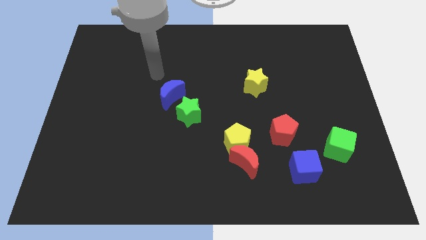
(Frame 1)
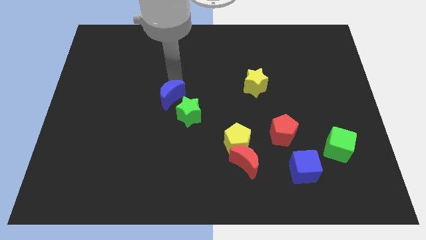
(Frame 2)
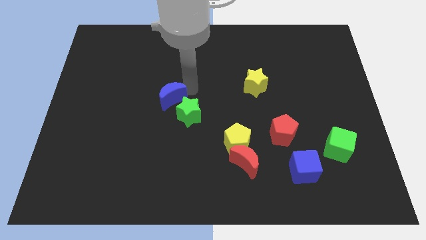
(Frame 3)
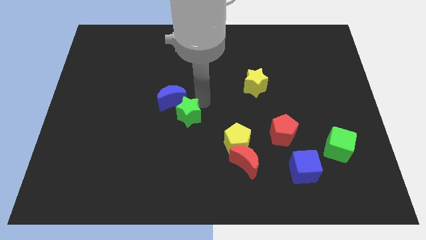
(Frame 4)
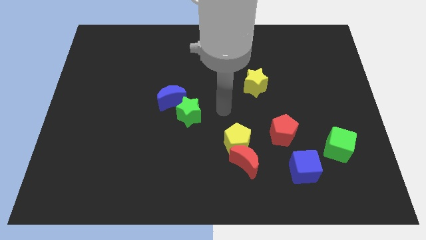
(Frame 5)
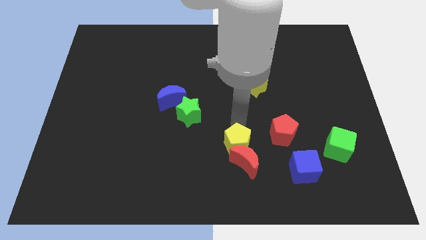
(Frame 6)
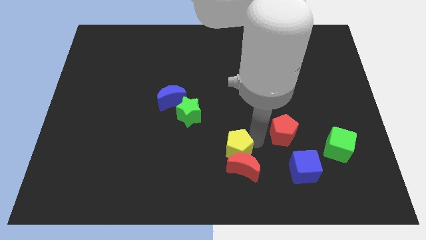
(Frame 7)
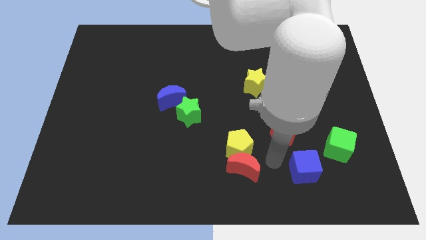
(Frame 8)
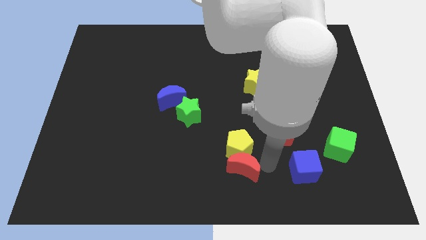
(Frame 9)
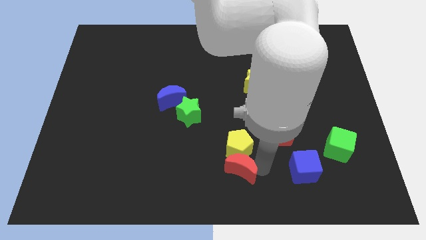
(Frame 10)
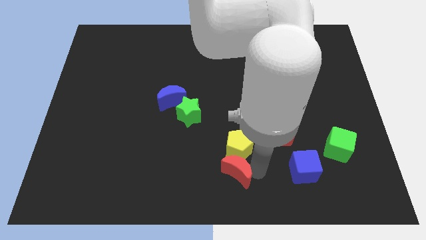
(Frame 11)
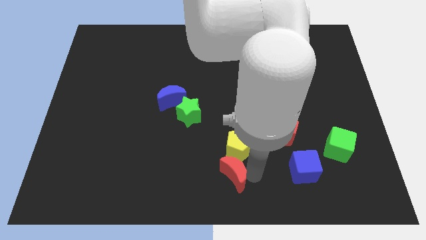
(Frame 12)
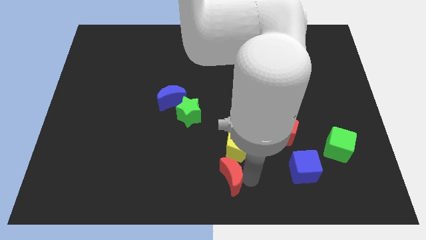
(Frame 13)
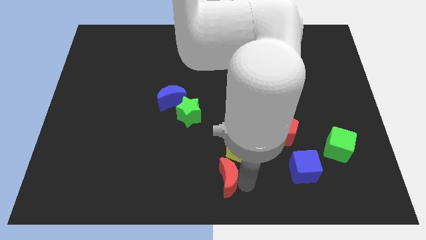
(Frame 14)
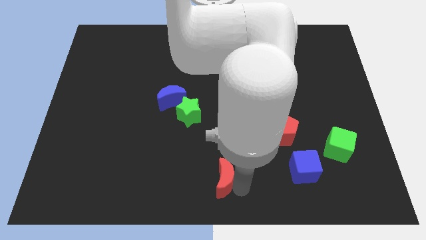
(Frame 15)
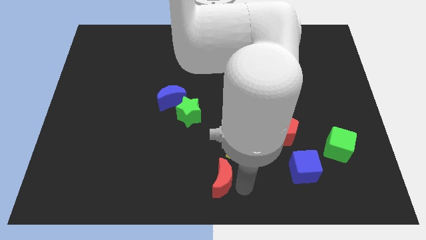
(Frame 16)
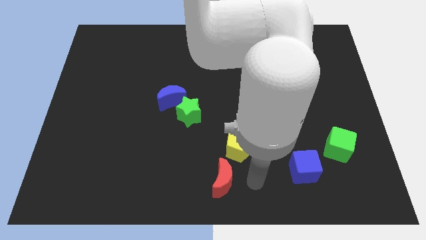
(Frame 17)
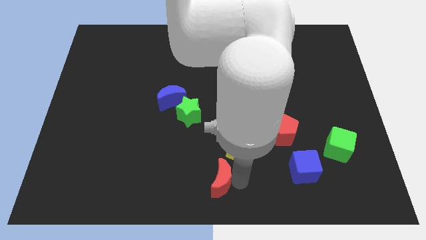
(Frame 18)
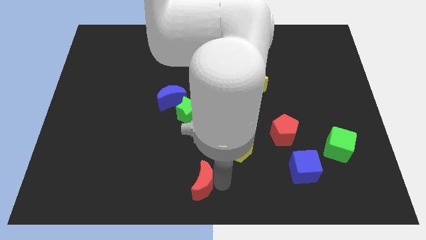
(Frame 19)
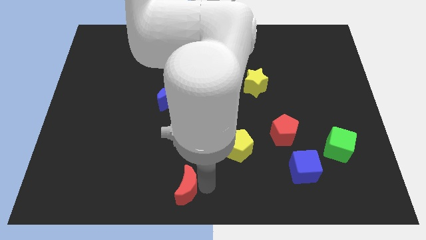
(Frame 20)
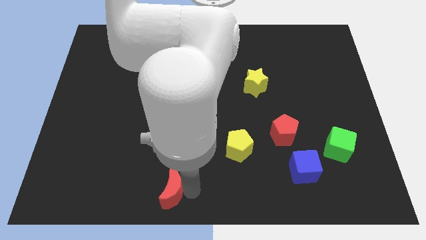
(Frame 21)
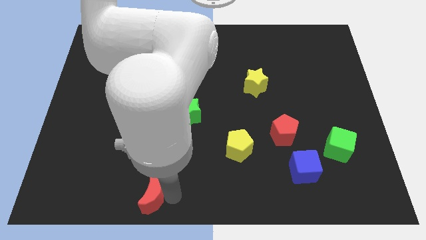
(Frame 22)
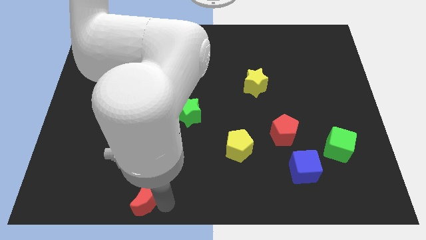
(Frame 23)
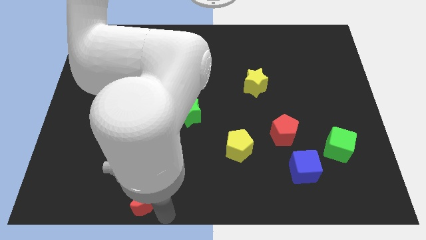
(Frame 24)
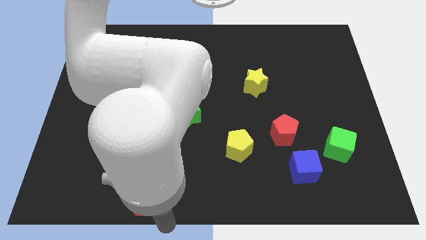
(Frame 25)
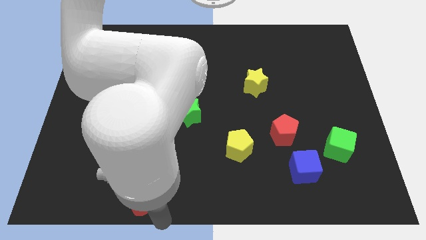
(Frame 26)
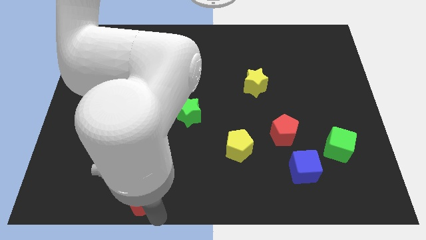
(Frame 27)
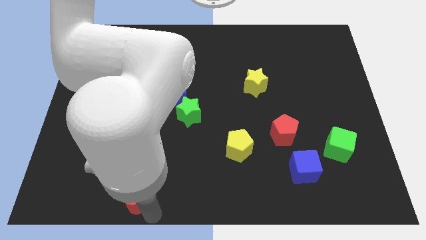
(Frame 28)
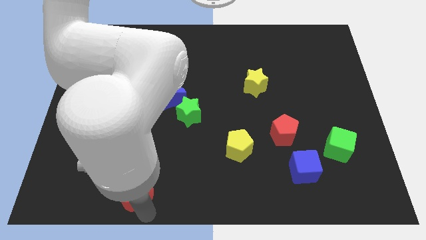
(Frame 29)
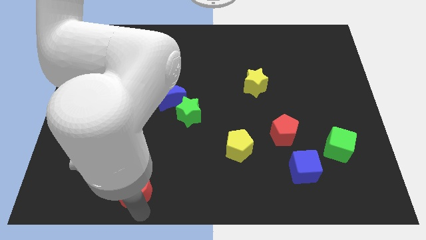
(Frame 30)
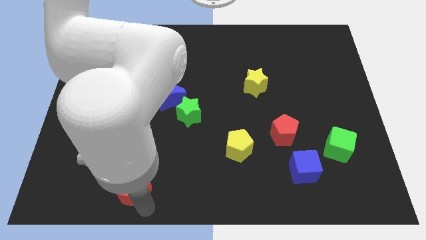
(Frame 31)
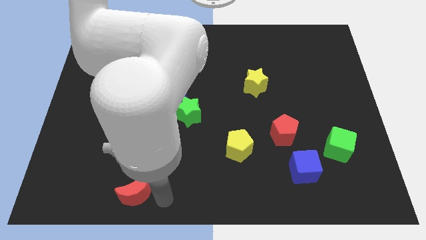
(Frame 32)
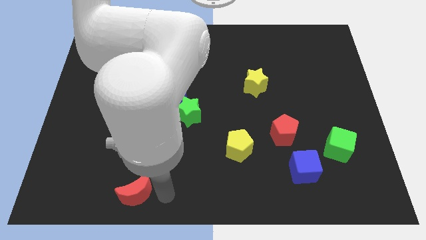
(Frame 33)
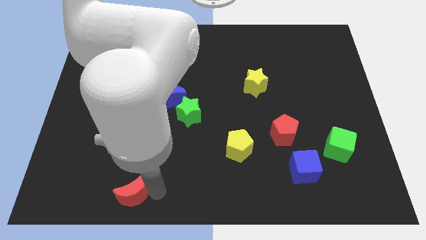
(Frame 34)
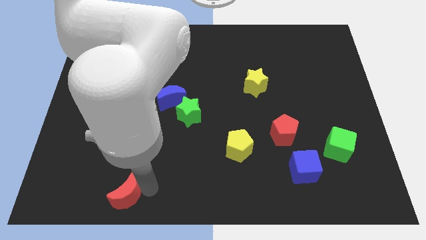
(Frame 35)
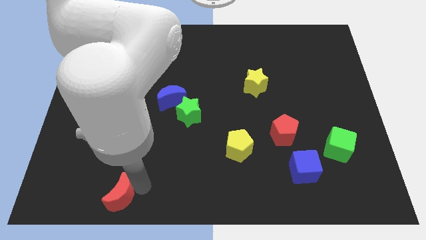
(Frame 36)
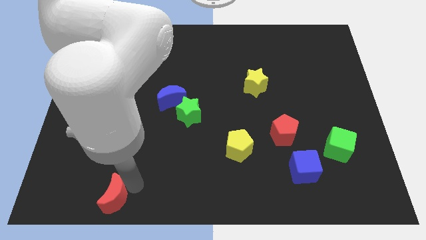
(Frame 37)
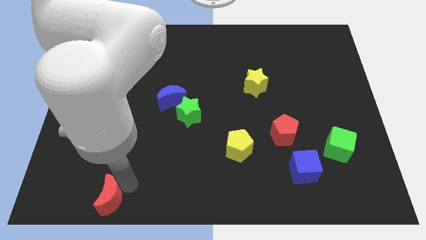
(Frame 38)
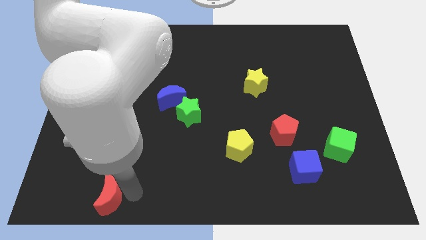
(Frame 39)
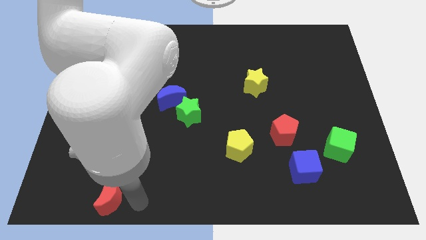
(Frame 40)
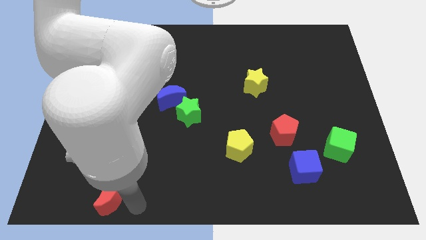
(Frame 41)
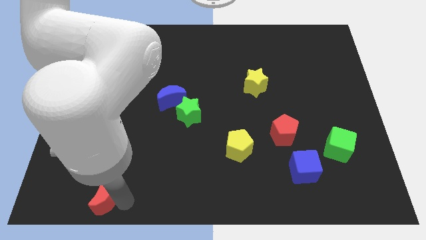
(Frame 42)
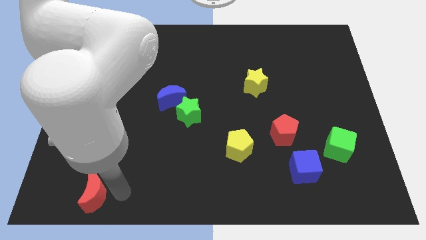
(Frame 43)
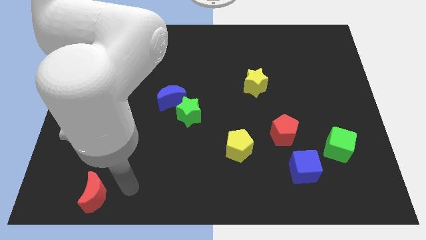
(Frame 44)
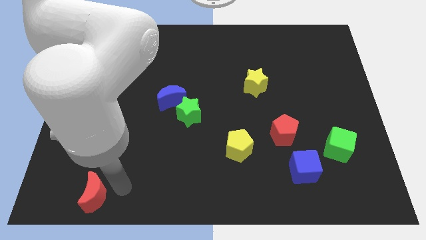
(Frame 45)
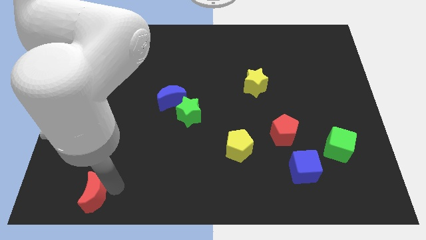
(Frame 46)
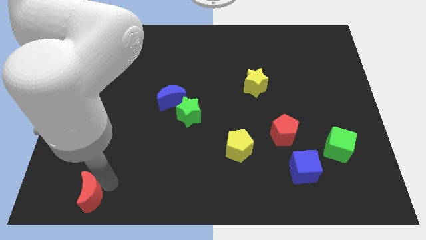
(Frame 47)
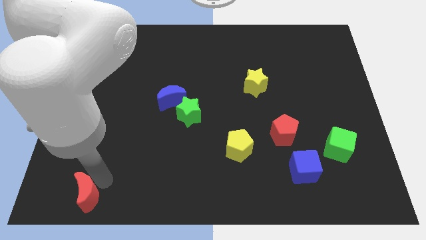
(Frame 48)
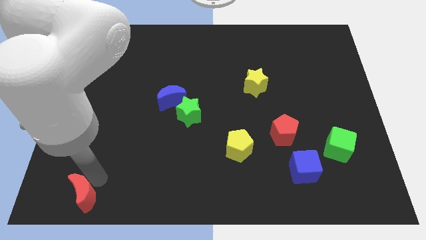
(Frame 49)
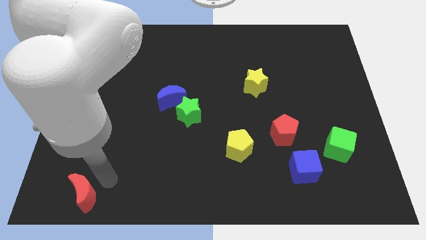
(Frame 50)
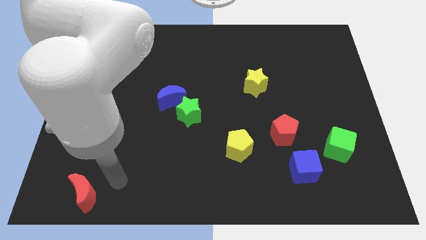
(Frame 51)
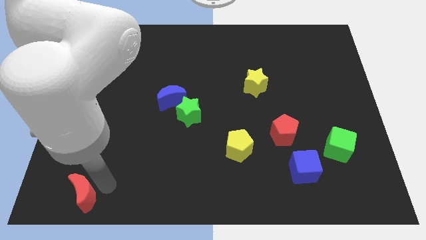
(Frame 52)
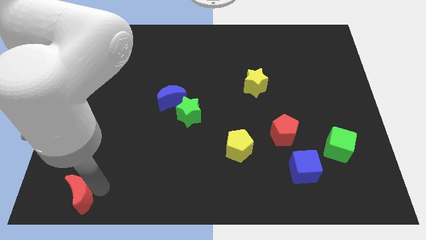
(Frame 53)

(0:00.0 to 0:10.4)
slide the red moon to the bottom left corner

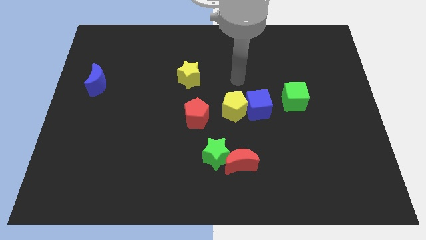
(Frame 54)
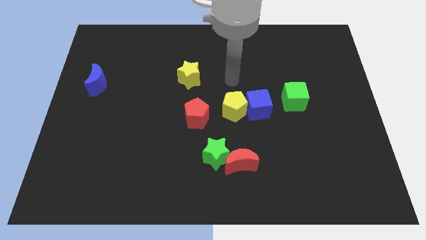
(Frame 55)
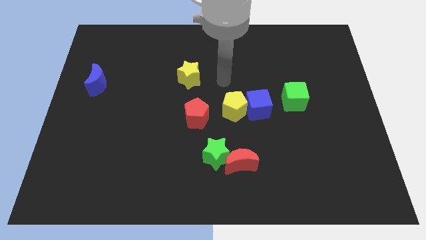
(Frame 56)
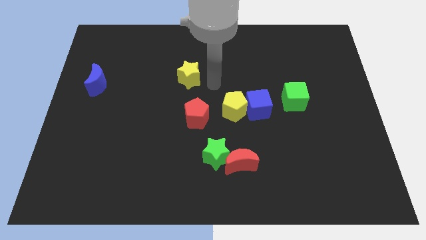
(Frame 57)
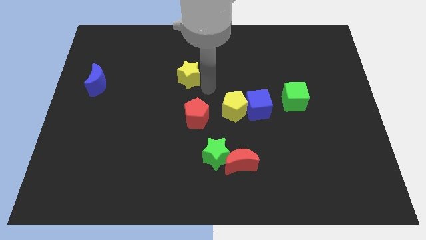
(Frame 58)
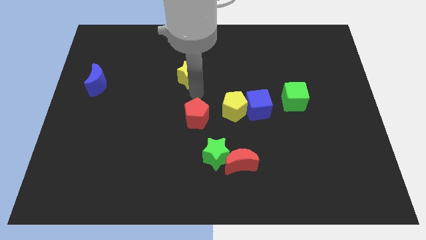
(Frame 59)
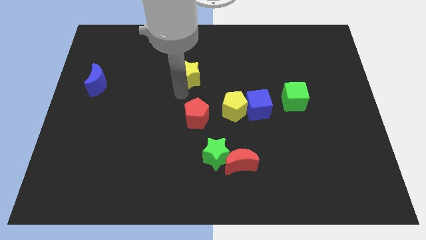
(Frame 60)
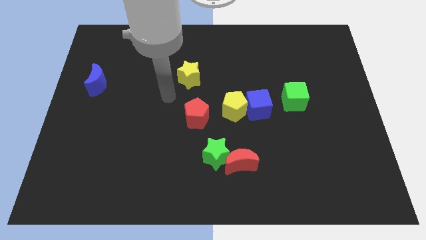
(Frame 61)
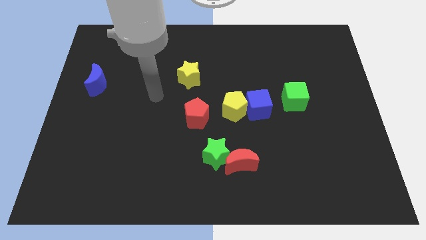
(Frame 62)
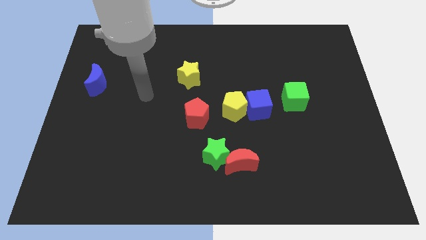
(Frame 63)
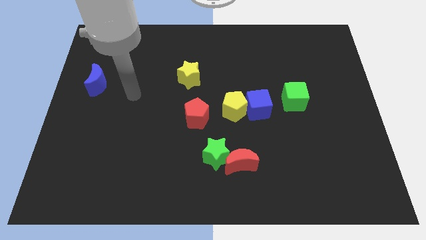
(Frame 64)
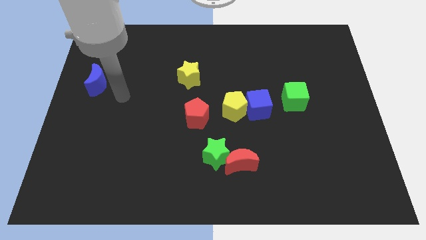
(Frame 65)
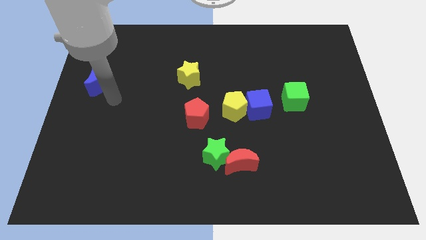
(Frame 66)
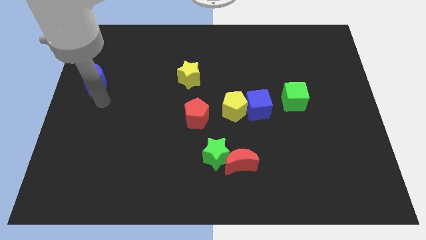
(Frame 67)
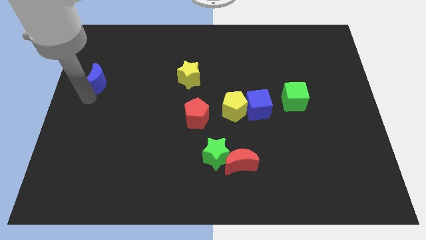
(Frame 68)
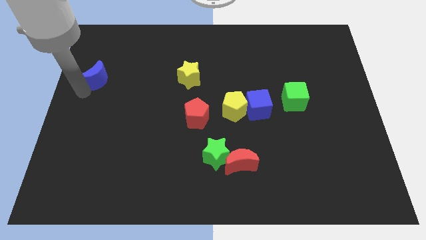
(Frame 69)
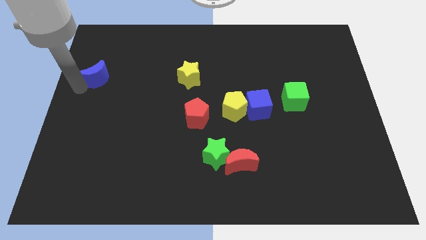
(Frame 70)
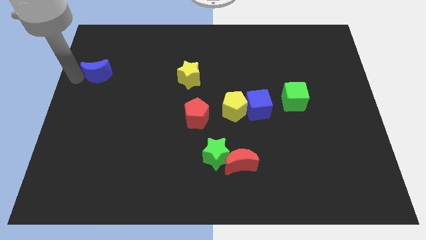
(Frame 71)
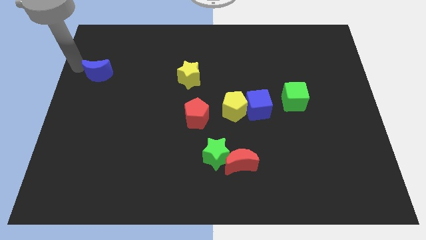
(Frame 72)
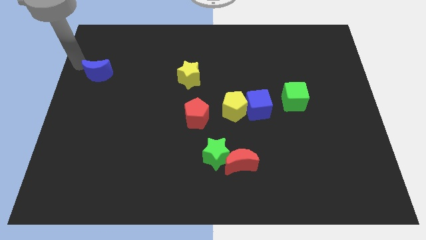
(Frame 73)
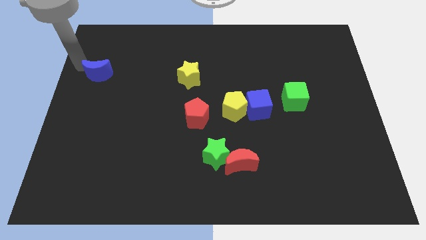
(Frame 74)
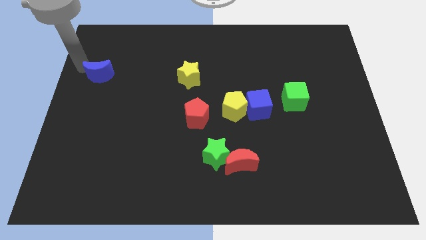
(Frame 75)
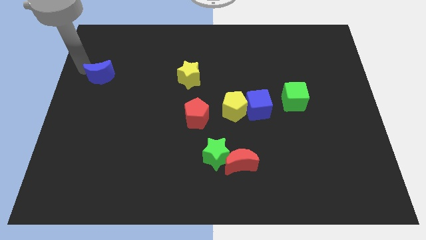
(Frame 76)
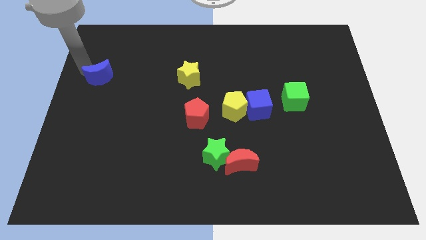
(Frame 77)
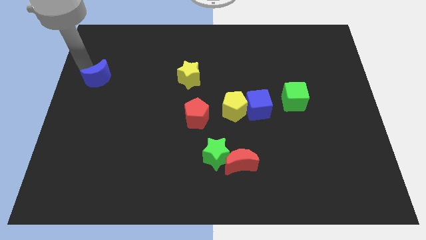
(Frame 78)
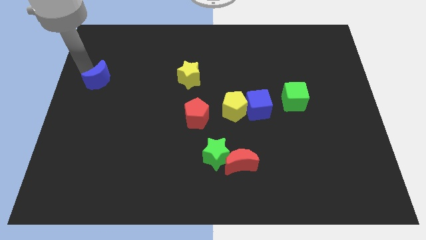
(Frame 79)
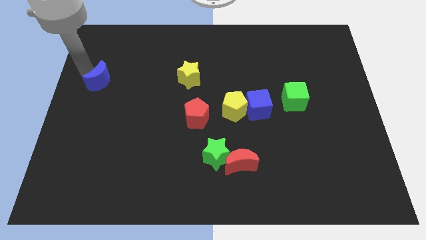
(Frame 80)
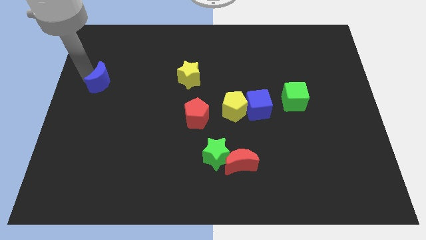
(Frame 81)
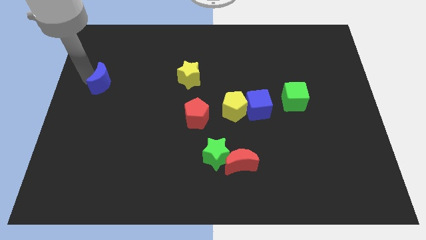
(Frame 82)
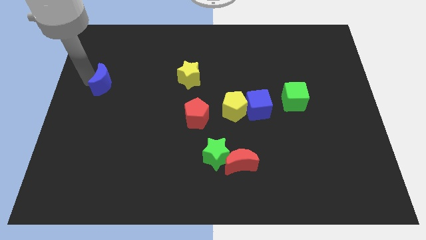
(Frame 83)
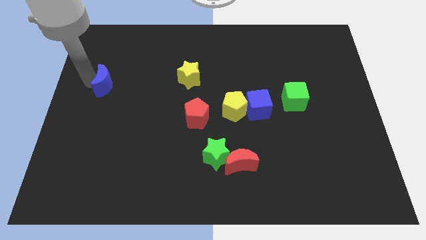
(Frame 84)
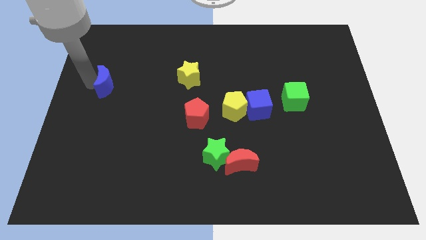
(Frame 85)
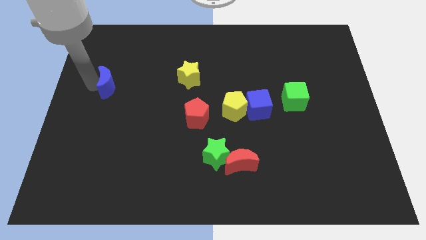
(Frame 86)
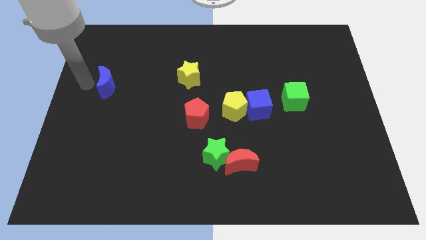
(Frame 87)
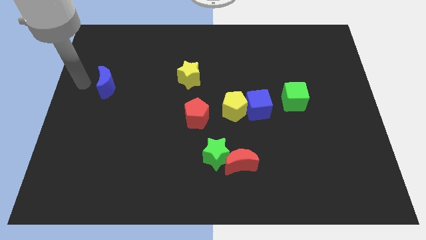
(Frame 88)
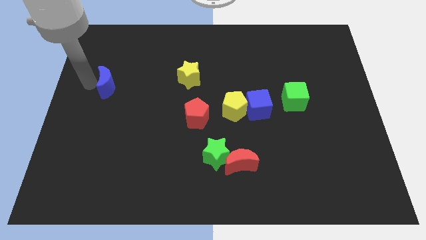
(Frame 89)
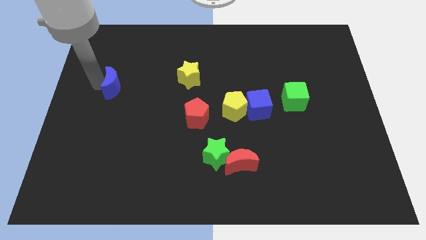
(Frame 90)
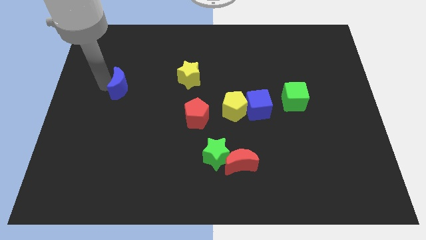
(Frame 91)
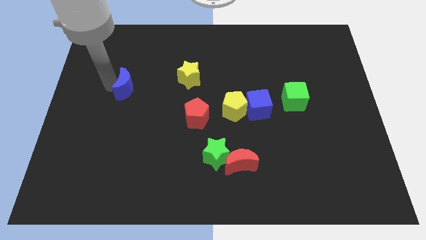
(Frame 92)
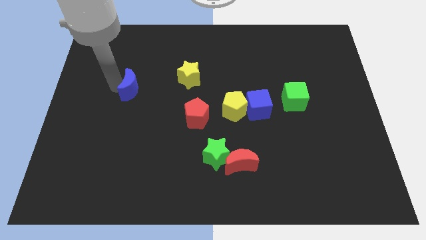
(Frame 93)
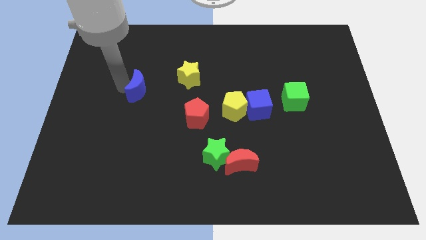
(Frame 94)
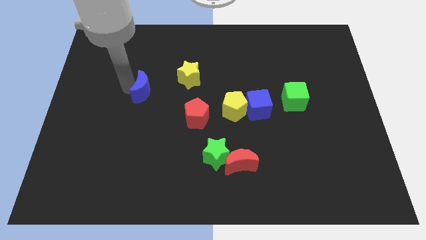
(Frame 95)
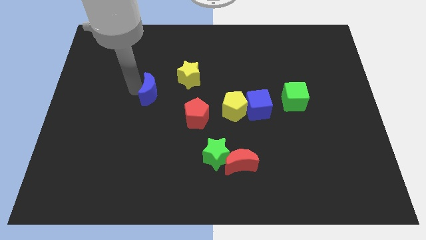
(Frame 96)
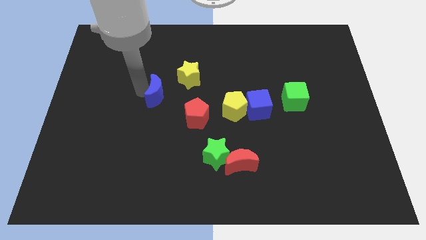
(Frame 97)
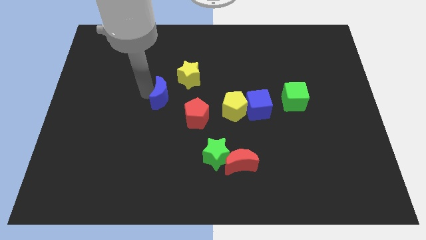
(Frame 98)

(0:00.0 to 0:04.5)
put the blue moon to the middle
